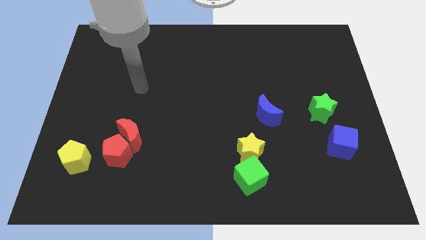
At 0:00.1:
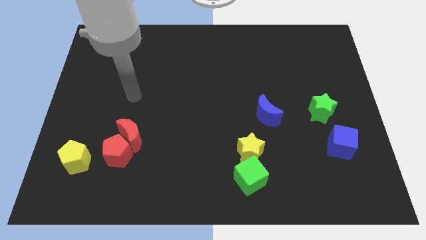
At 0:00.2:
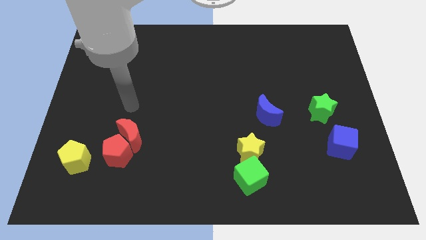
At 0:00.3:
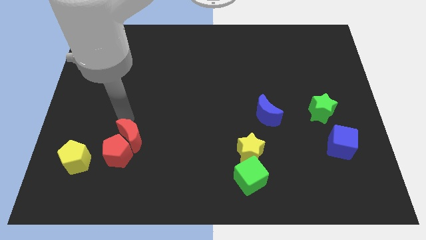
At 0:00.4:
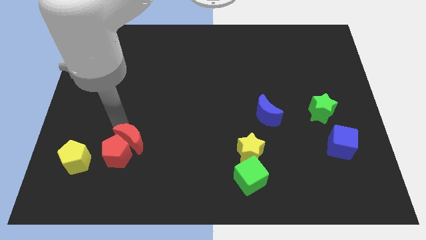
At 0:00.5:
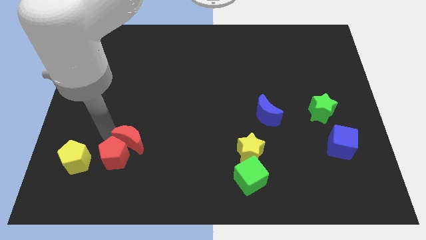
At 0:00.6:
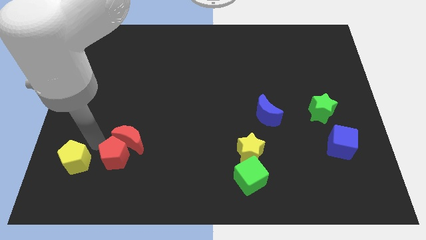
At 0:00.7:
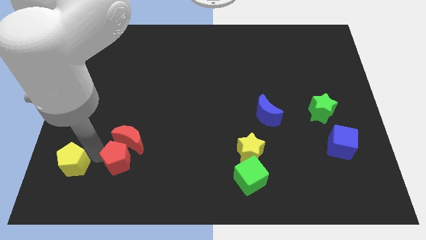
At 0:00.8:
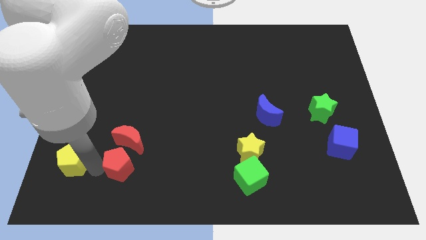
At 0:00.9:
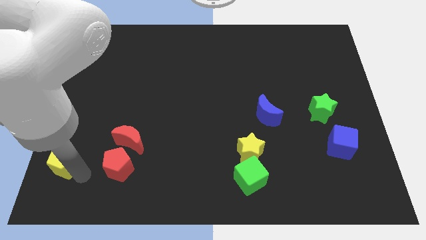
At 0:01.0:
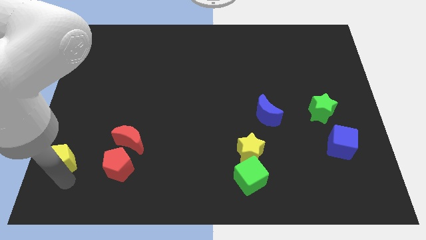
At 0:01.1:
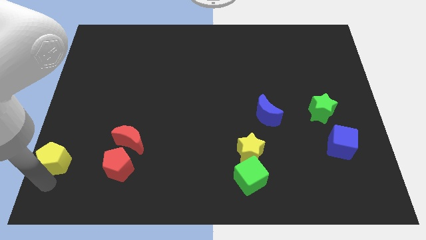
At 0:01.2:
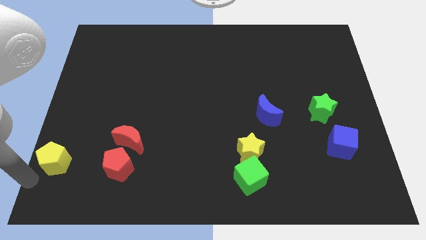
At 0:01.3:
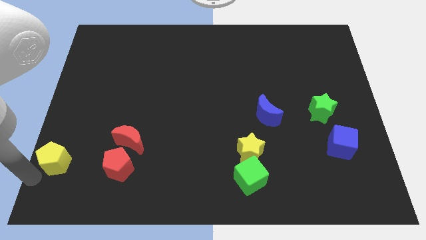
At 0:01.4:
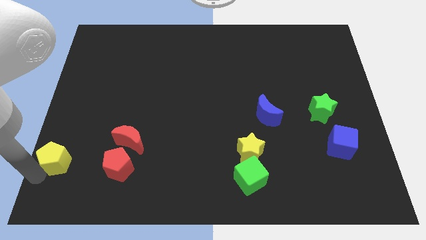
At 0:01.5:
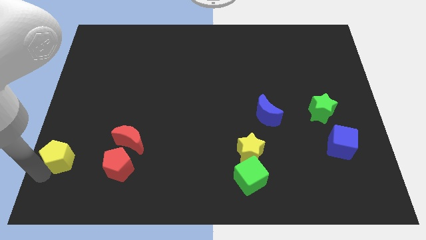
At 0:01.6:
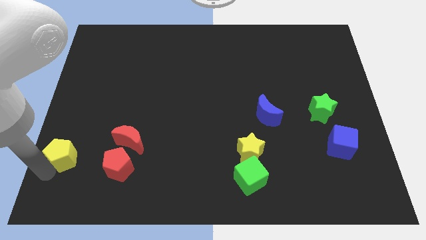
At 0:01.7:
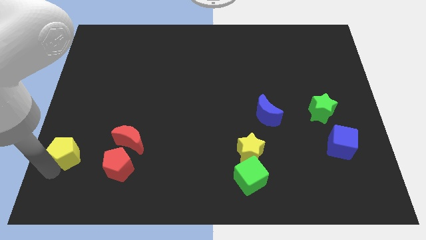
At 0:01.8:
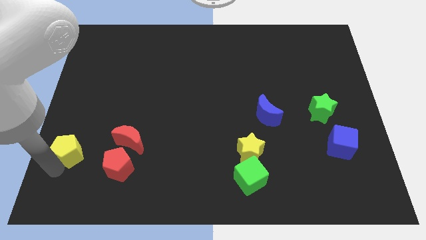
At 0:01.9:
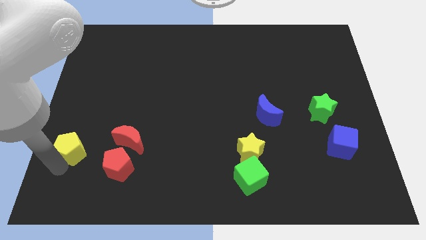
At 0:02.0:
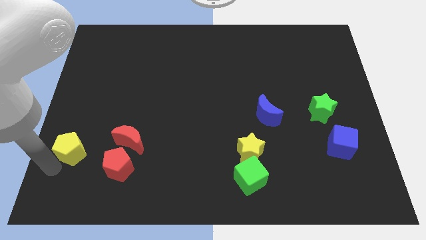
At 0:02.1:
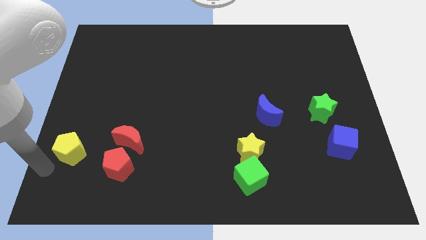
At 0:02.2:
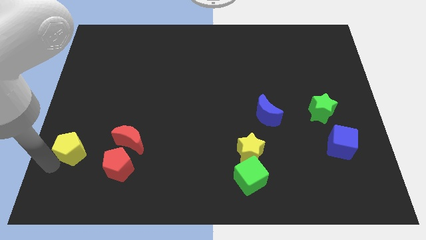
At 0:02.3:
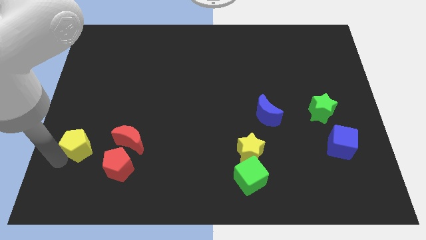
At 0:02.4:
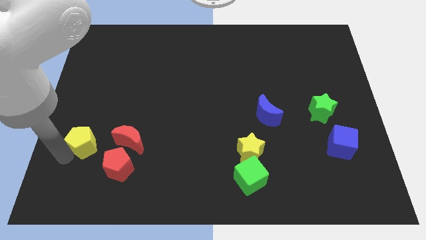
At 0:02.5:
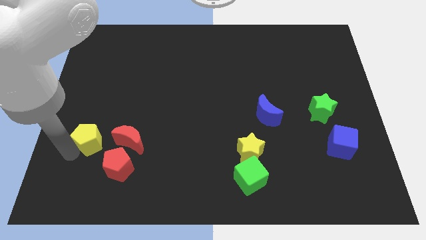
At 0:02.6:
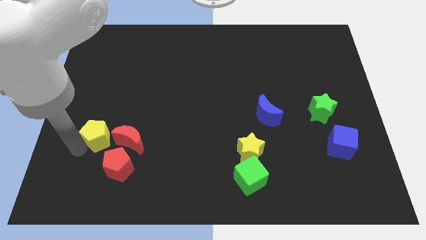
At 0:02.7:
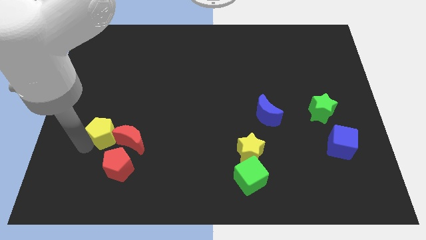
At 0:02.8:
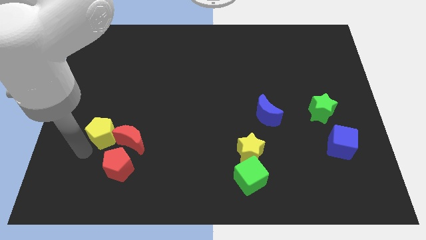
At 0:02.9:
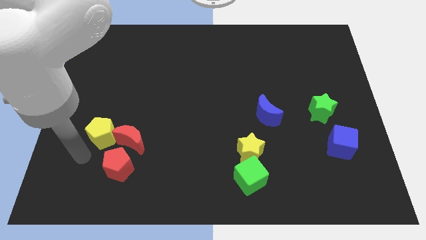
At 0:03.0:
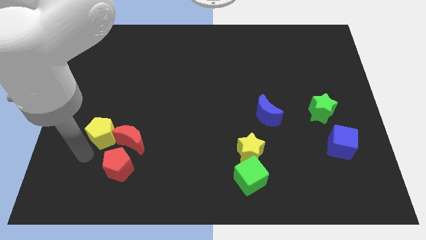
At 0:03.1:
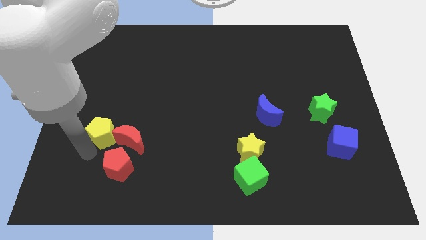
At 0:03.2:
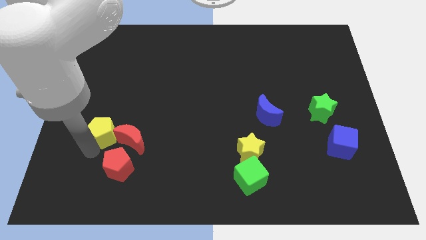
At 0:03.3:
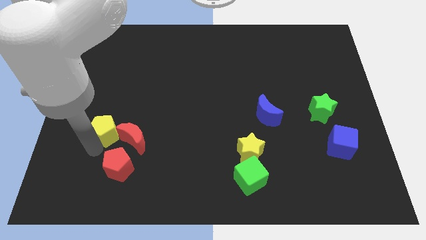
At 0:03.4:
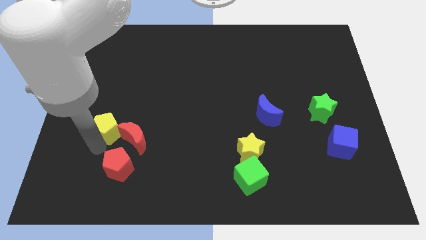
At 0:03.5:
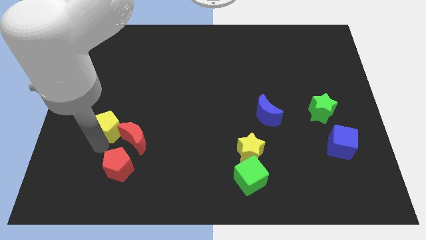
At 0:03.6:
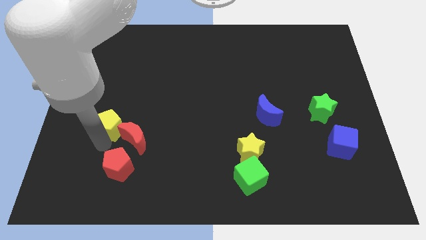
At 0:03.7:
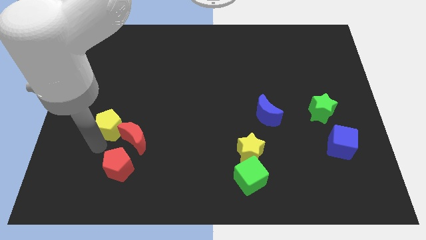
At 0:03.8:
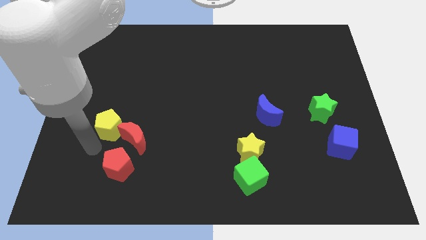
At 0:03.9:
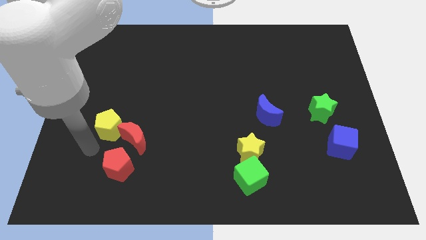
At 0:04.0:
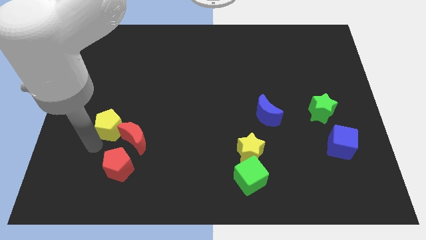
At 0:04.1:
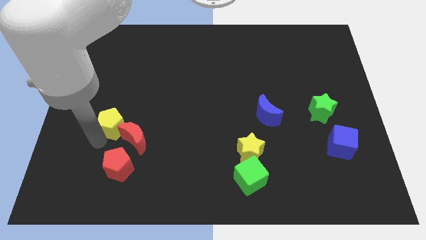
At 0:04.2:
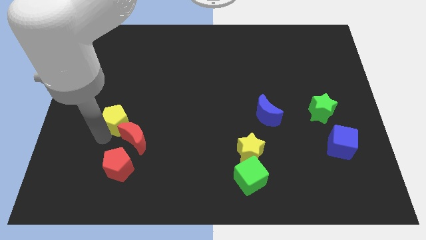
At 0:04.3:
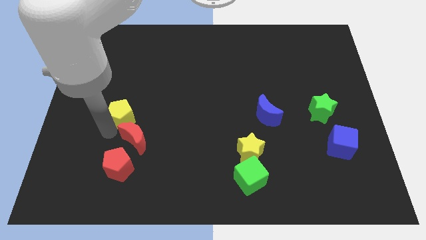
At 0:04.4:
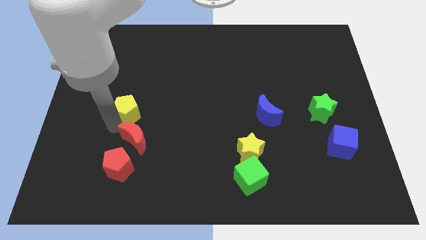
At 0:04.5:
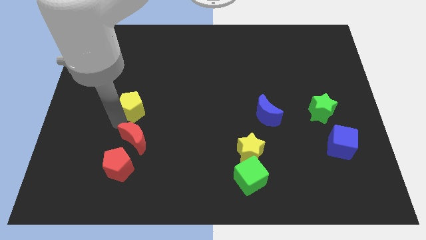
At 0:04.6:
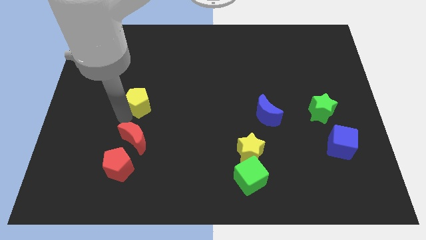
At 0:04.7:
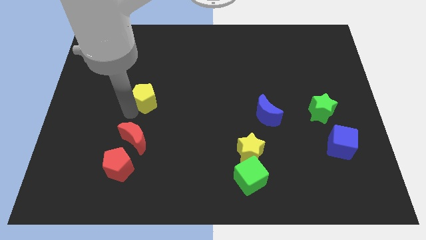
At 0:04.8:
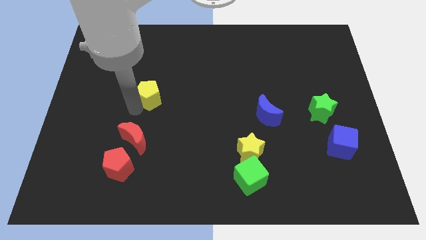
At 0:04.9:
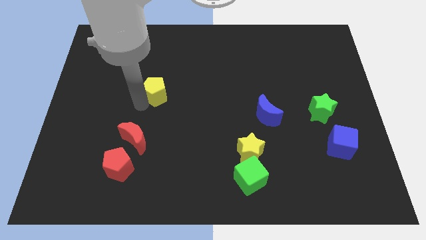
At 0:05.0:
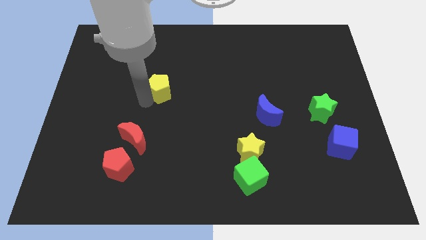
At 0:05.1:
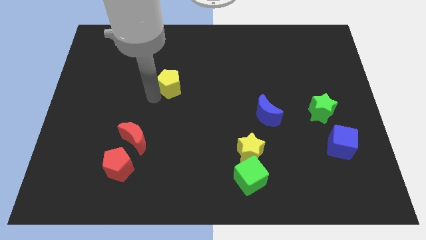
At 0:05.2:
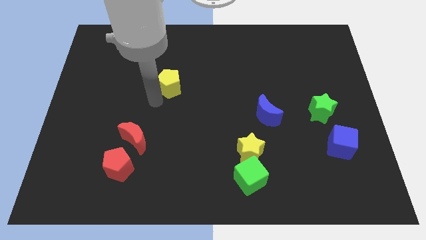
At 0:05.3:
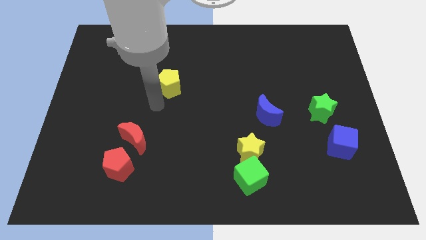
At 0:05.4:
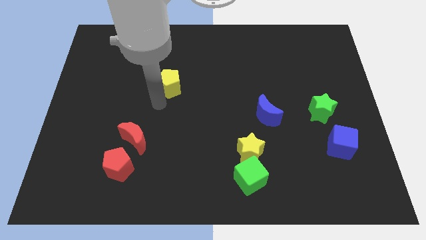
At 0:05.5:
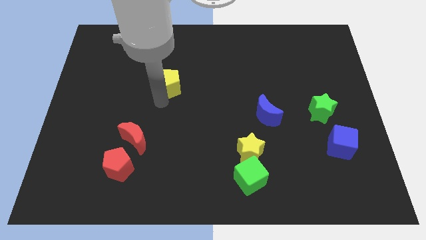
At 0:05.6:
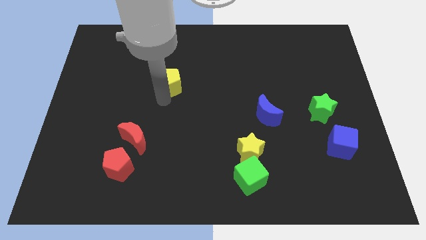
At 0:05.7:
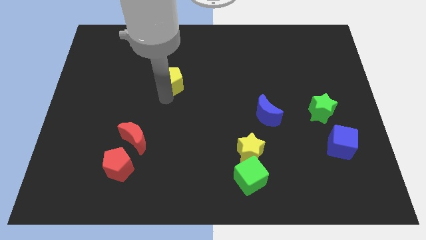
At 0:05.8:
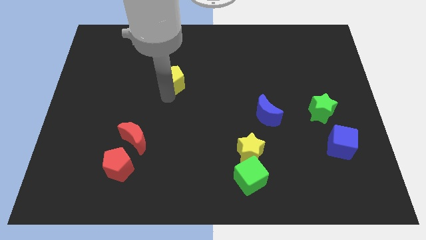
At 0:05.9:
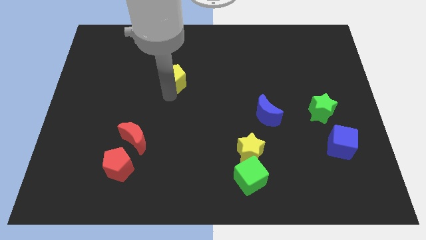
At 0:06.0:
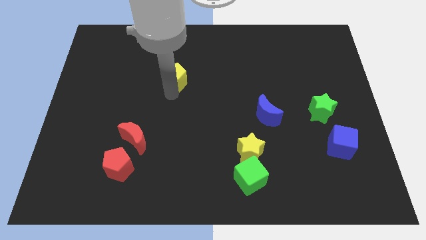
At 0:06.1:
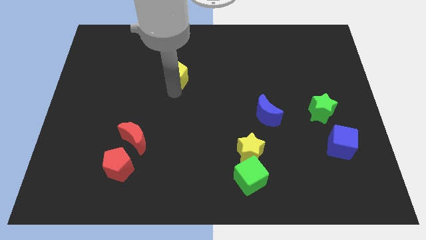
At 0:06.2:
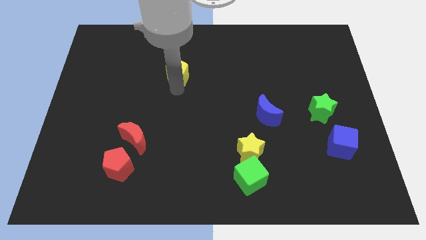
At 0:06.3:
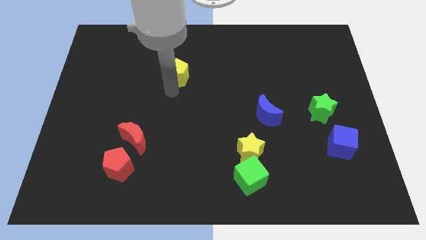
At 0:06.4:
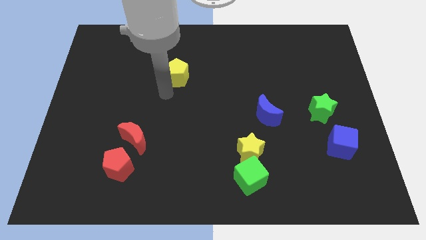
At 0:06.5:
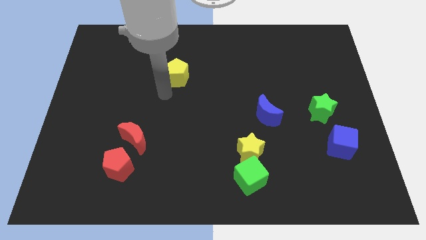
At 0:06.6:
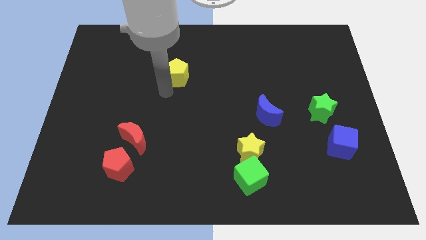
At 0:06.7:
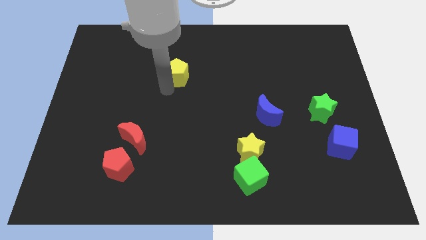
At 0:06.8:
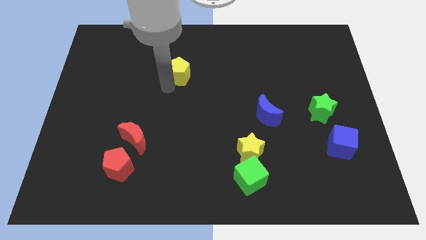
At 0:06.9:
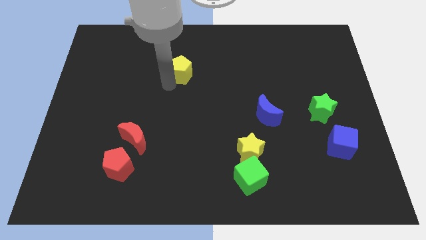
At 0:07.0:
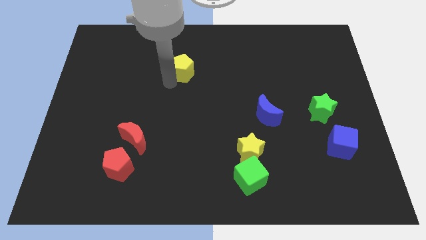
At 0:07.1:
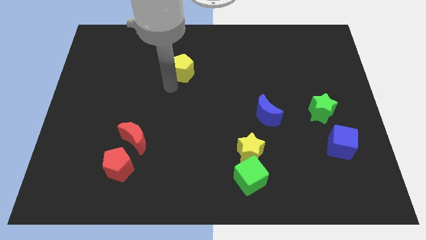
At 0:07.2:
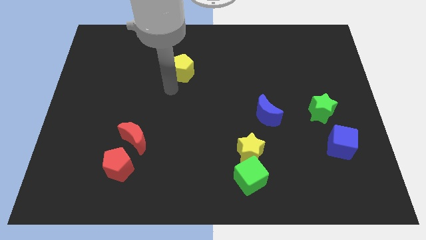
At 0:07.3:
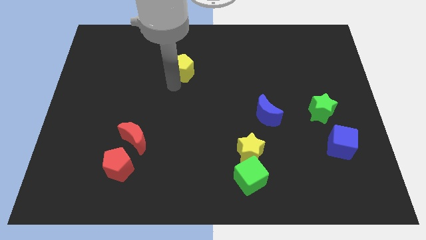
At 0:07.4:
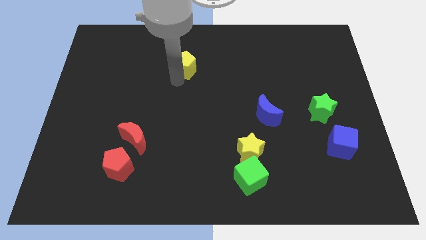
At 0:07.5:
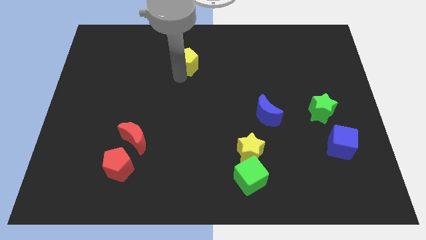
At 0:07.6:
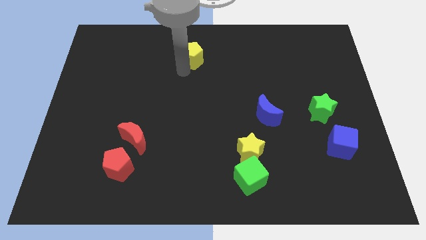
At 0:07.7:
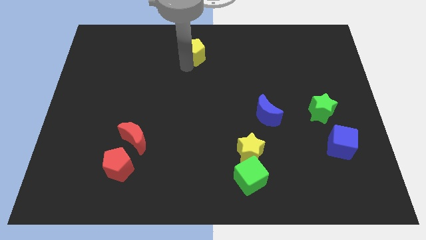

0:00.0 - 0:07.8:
push the yellow pentagon to the towards your base
